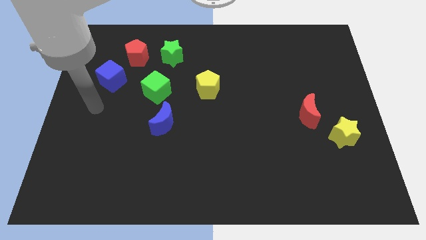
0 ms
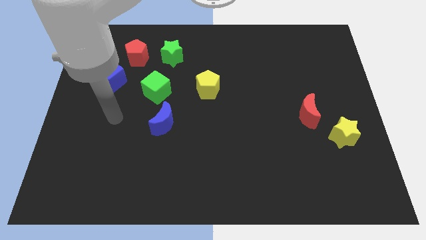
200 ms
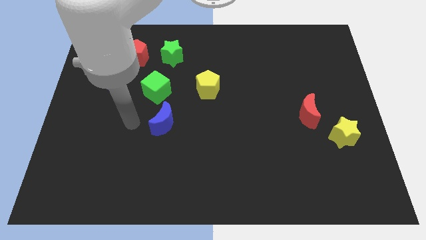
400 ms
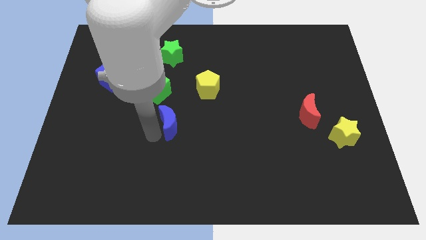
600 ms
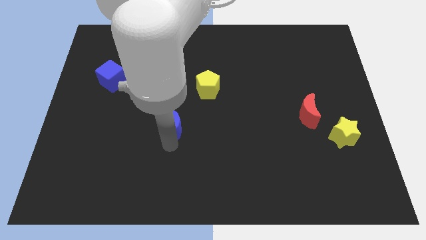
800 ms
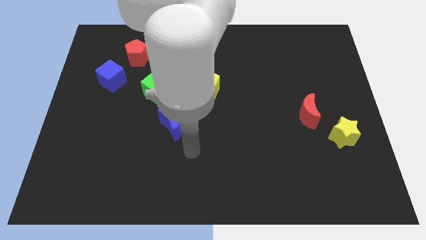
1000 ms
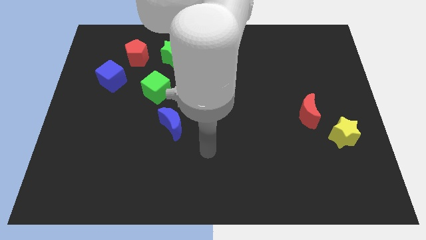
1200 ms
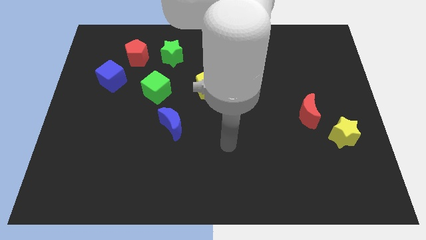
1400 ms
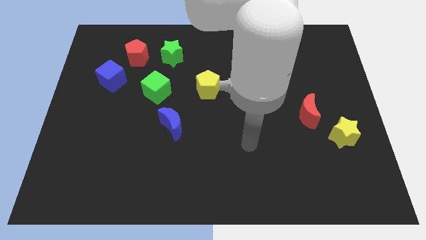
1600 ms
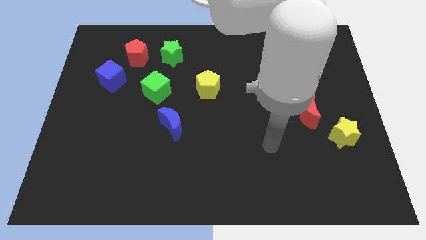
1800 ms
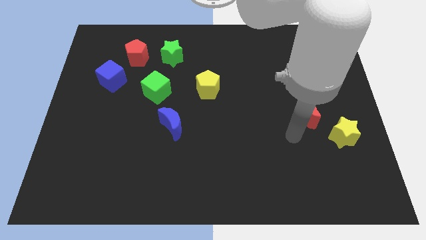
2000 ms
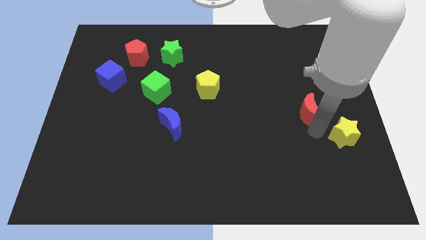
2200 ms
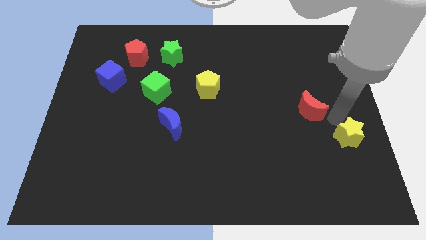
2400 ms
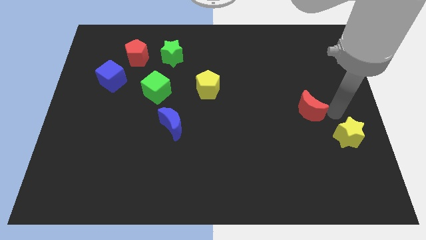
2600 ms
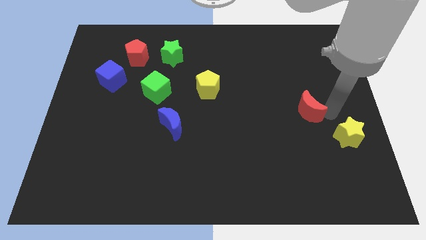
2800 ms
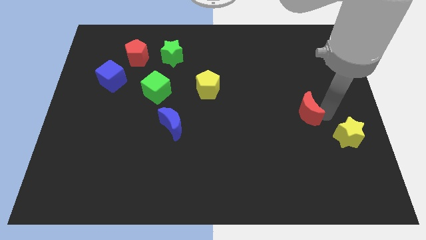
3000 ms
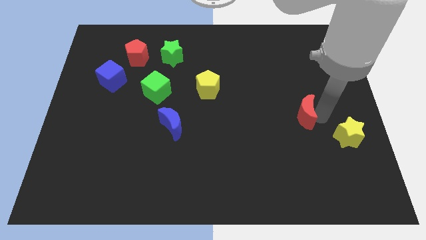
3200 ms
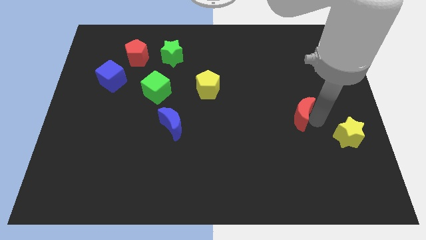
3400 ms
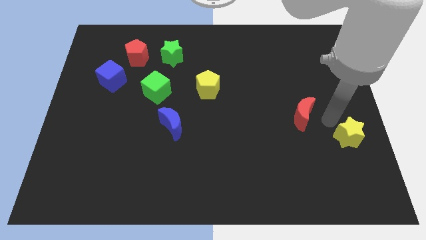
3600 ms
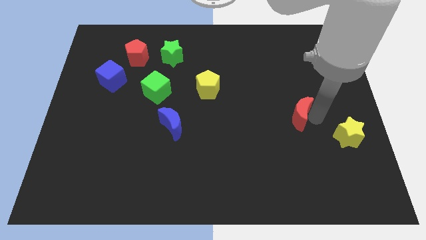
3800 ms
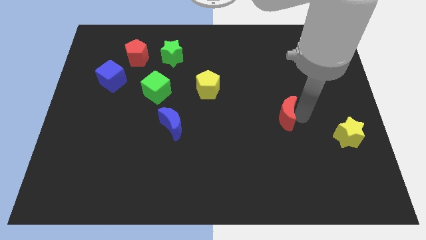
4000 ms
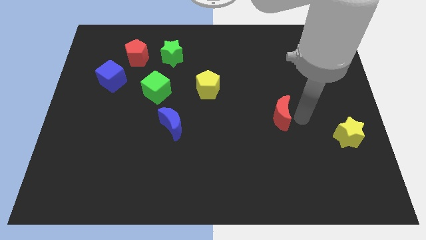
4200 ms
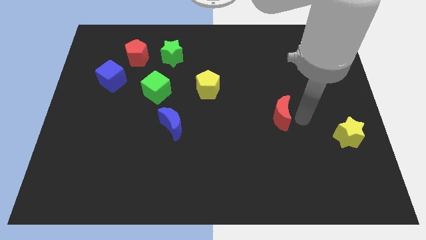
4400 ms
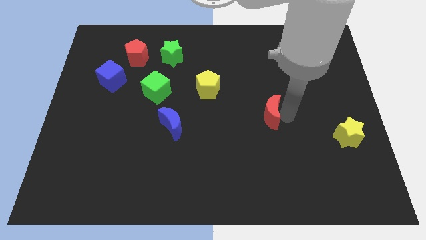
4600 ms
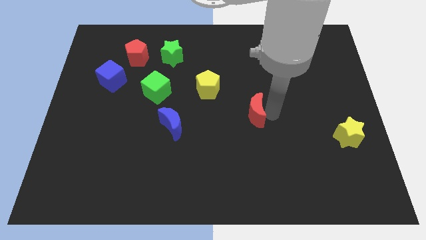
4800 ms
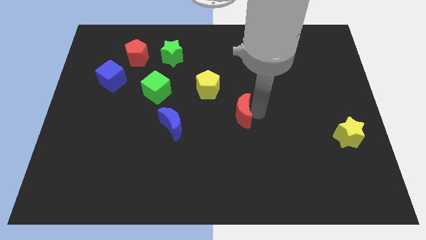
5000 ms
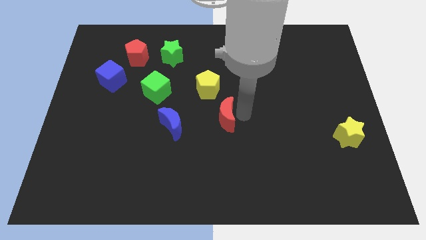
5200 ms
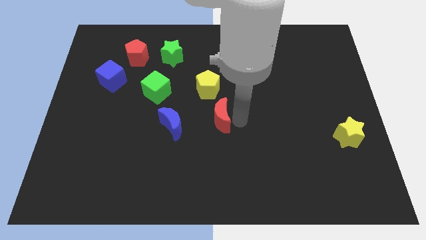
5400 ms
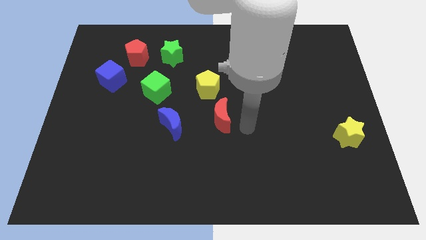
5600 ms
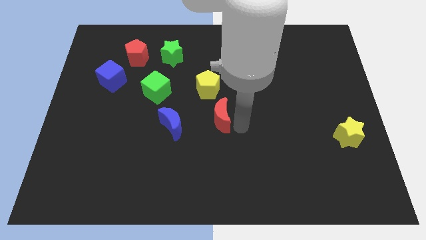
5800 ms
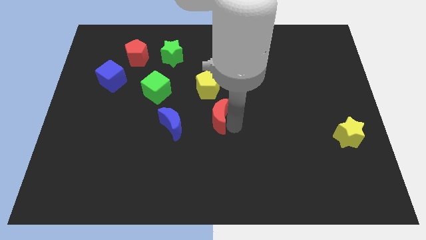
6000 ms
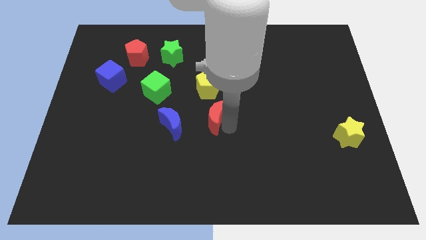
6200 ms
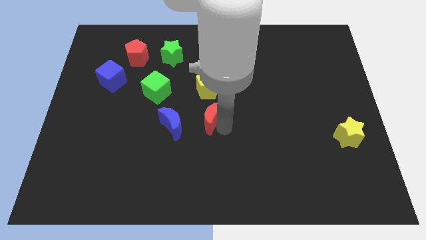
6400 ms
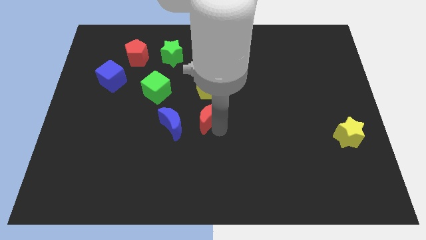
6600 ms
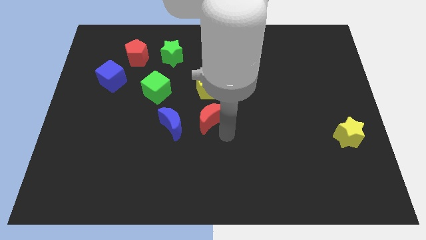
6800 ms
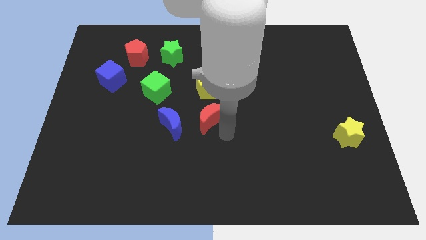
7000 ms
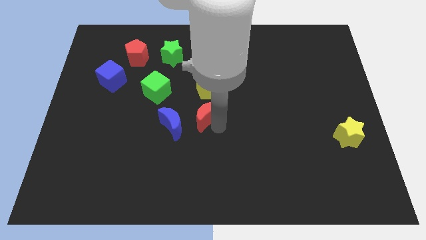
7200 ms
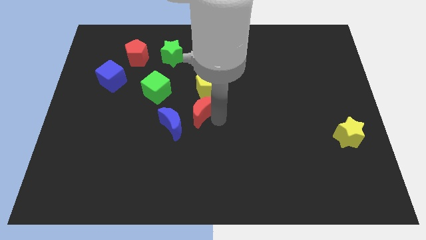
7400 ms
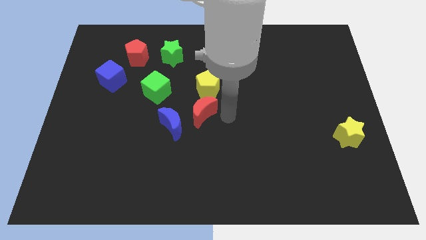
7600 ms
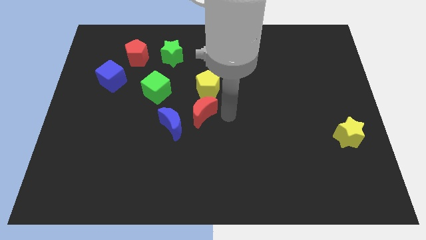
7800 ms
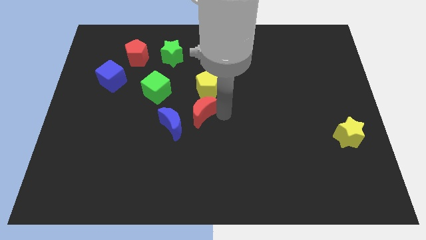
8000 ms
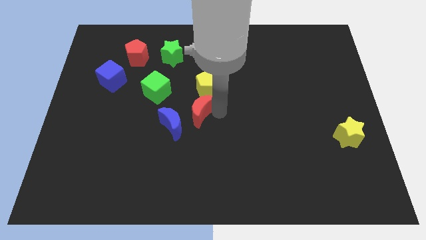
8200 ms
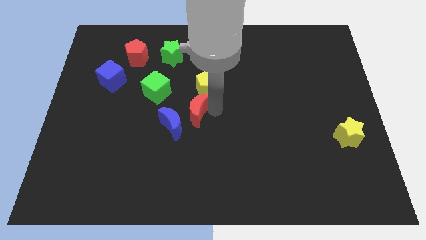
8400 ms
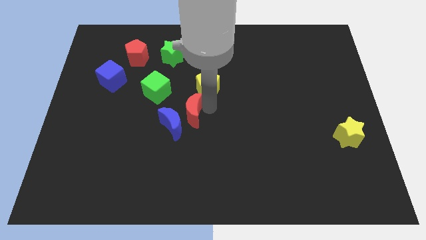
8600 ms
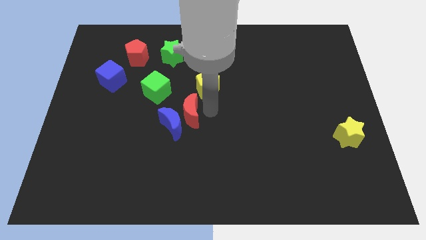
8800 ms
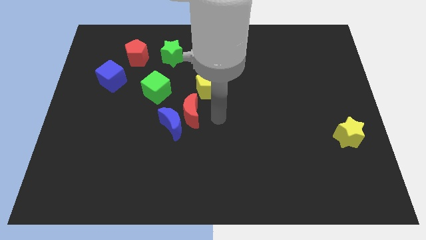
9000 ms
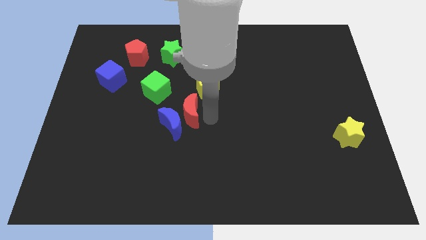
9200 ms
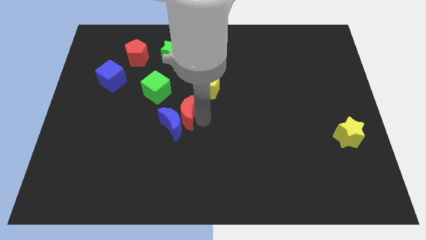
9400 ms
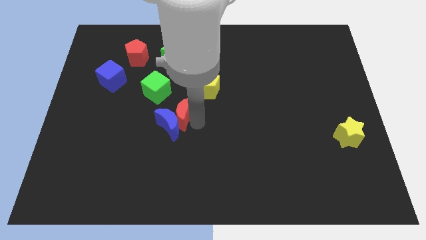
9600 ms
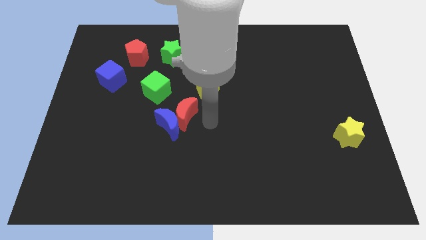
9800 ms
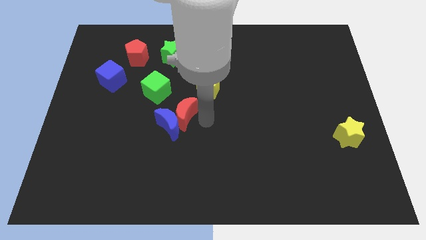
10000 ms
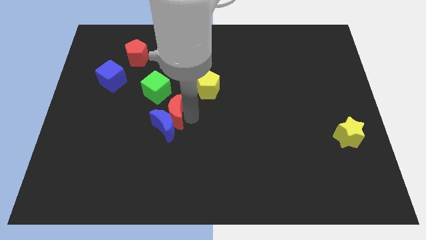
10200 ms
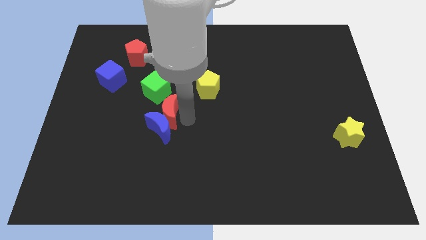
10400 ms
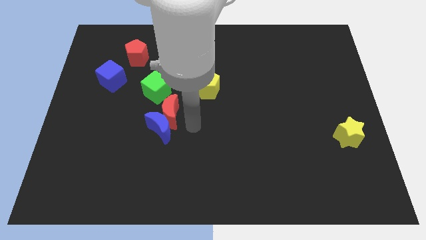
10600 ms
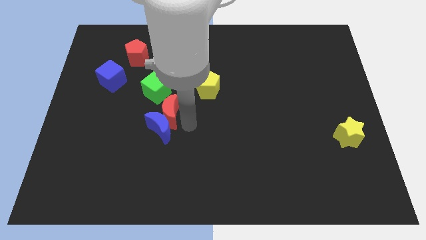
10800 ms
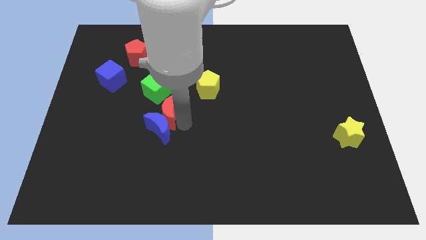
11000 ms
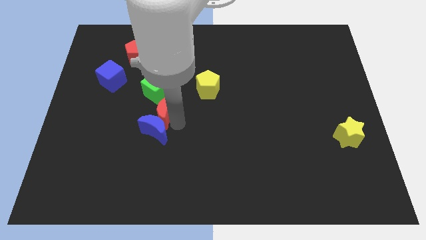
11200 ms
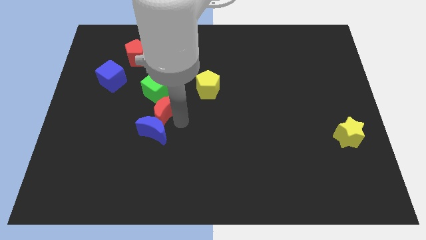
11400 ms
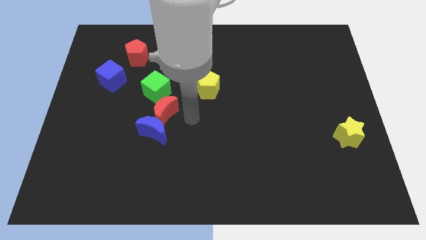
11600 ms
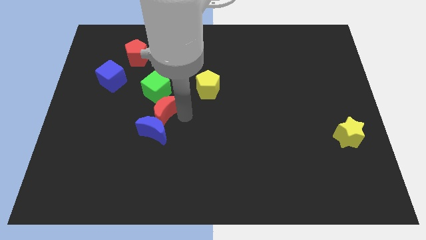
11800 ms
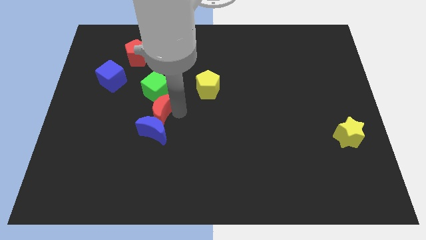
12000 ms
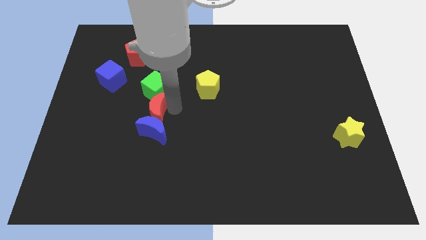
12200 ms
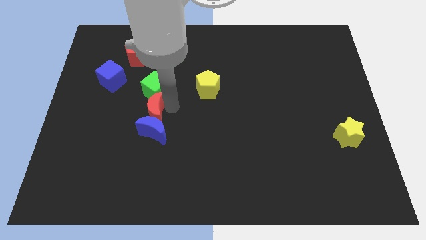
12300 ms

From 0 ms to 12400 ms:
push the red moon diagonally down and to the left of the green cube

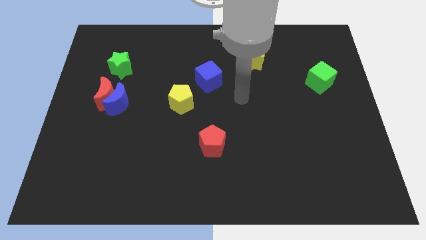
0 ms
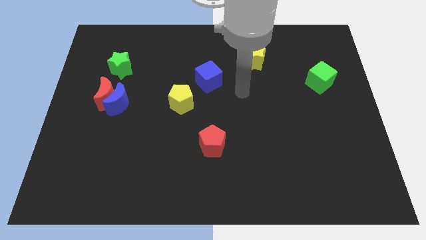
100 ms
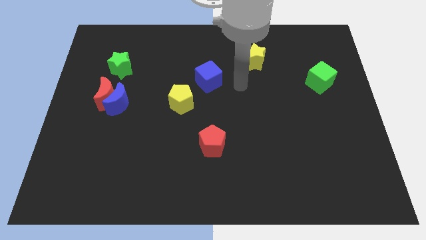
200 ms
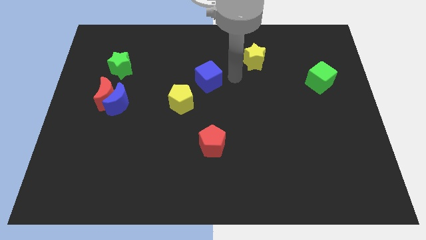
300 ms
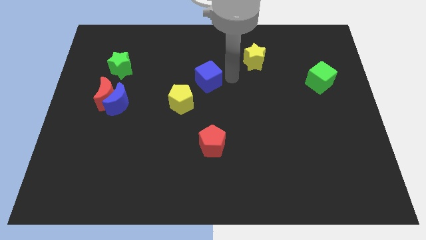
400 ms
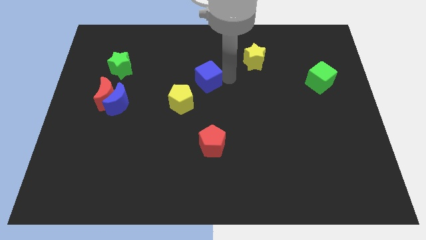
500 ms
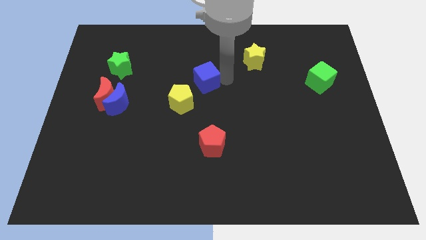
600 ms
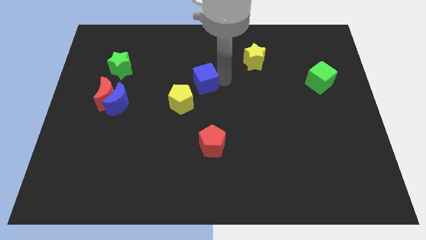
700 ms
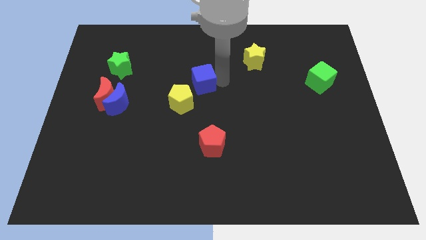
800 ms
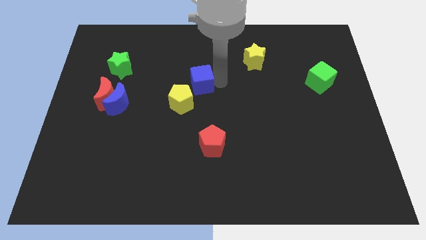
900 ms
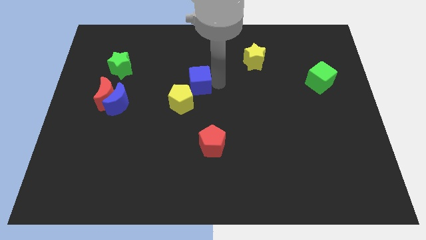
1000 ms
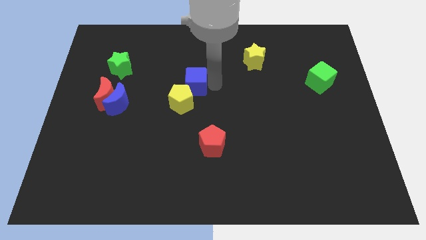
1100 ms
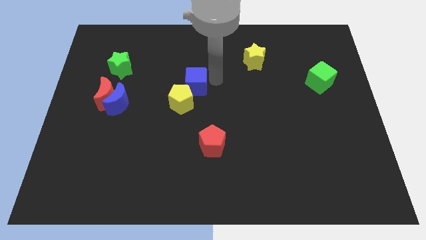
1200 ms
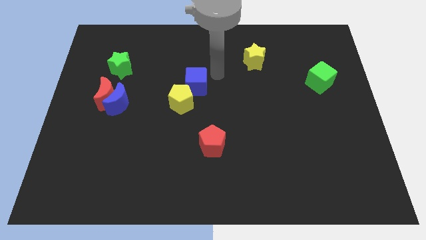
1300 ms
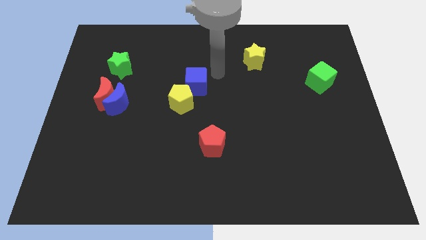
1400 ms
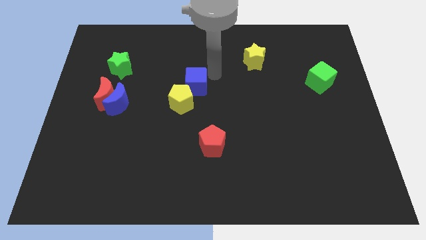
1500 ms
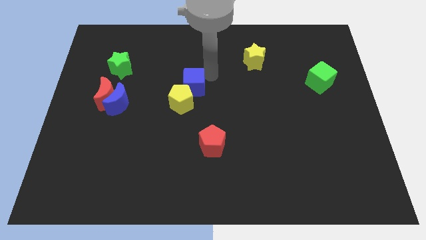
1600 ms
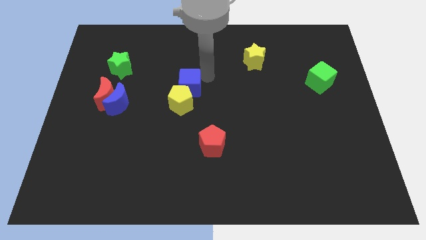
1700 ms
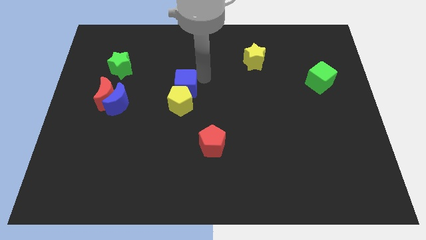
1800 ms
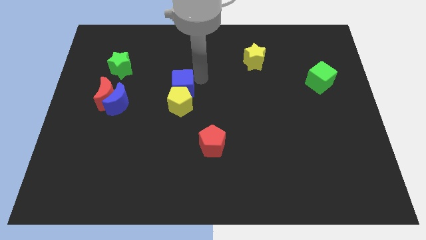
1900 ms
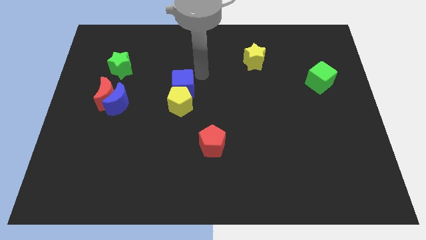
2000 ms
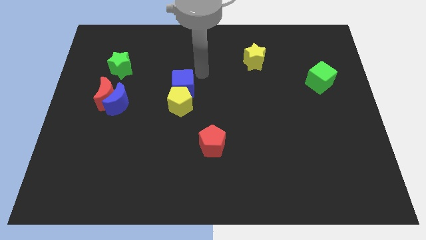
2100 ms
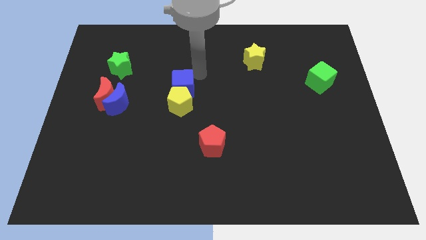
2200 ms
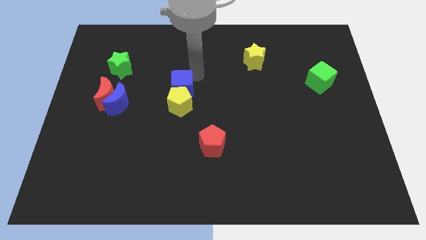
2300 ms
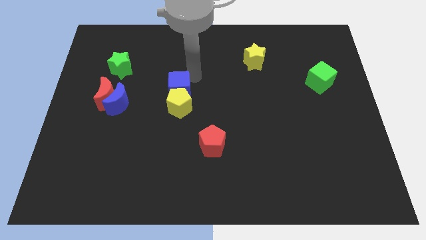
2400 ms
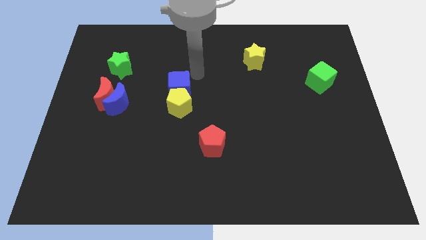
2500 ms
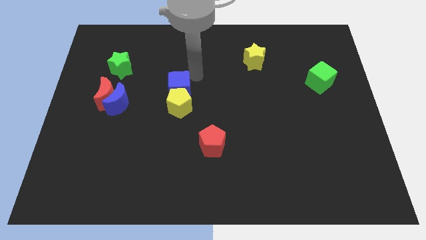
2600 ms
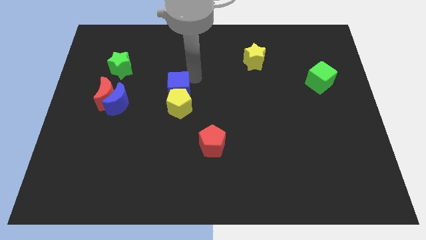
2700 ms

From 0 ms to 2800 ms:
put the blue cube to the right side of the blue moon
